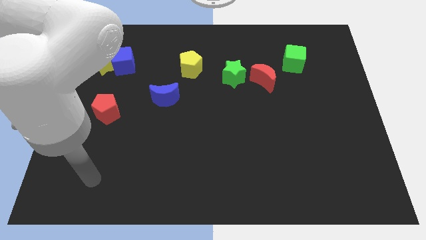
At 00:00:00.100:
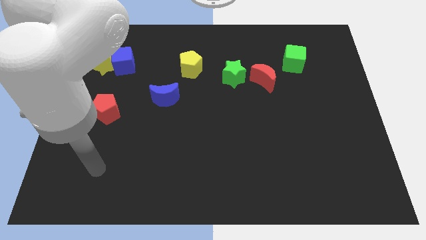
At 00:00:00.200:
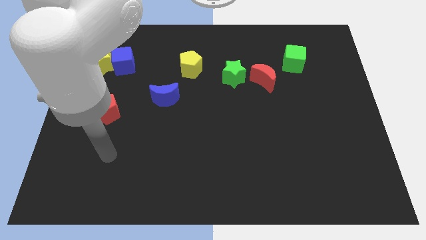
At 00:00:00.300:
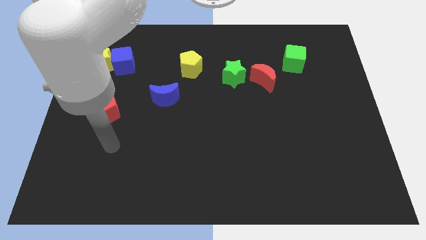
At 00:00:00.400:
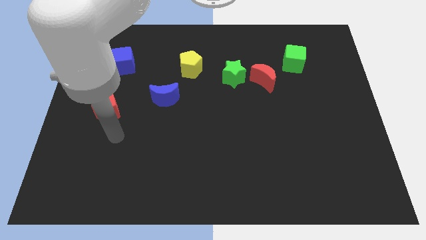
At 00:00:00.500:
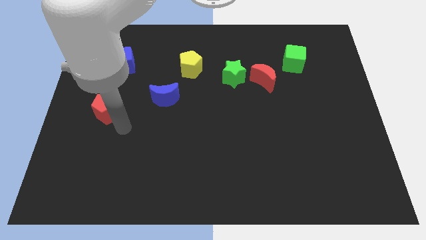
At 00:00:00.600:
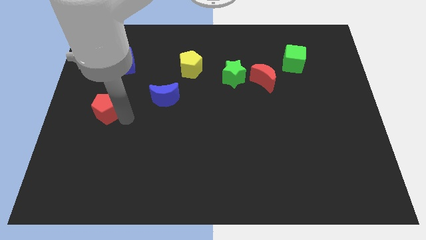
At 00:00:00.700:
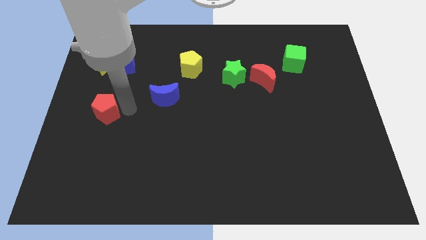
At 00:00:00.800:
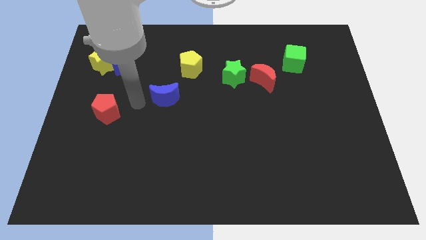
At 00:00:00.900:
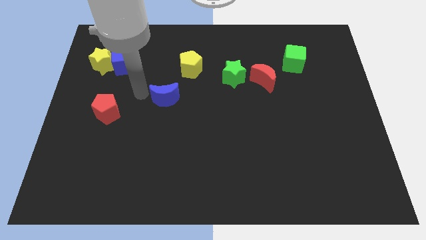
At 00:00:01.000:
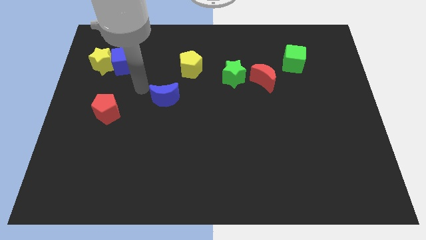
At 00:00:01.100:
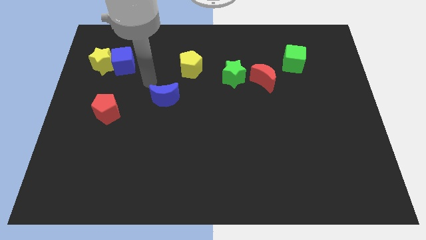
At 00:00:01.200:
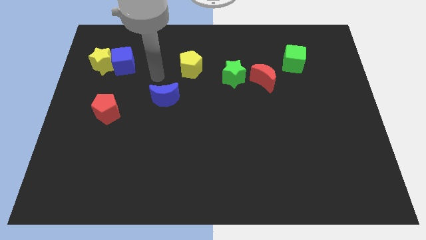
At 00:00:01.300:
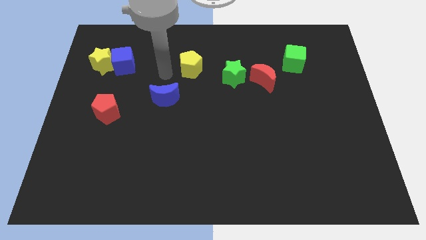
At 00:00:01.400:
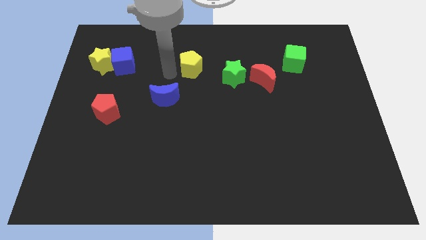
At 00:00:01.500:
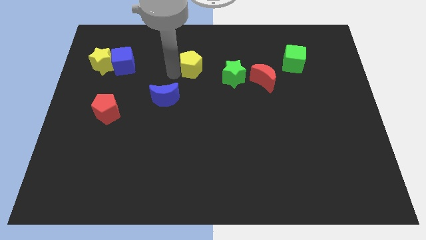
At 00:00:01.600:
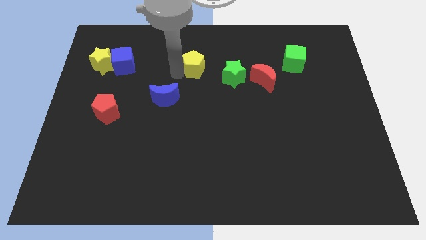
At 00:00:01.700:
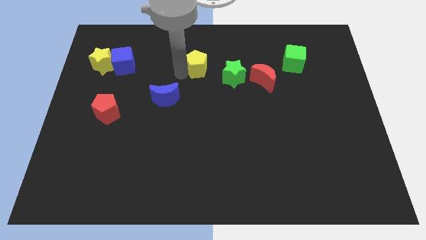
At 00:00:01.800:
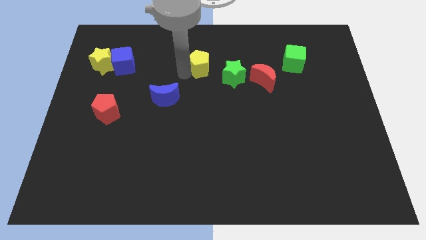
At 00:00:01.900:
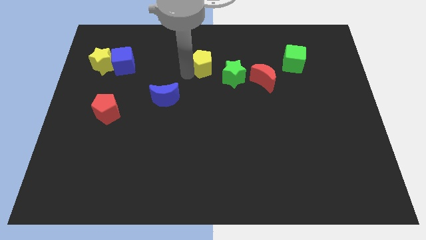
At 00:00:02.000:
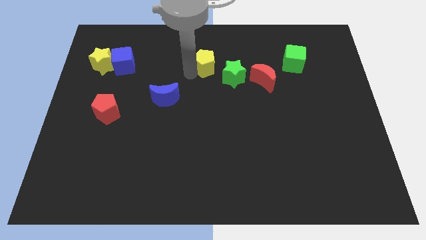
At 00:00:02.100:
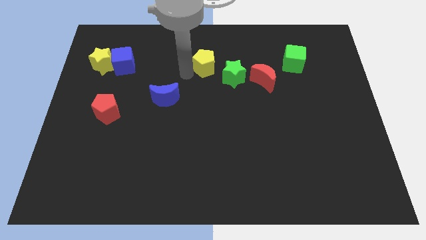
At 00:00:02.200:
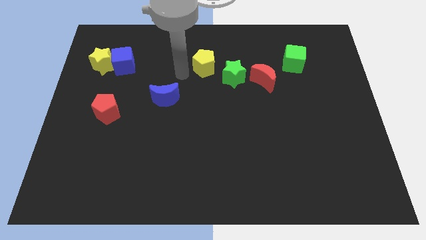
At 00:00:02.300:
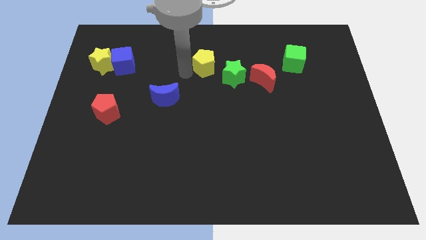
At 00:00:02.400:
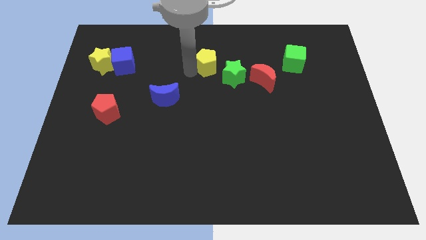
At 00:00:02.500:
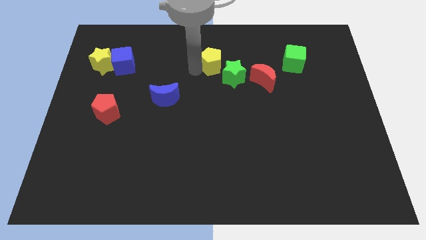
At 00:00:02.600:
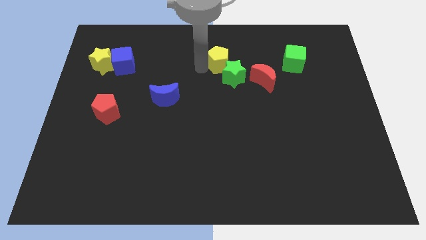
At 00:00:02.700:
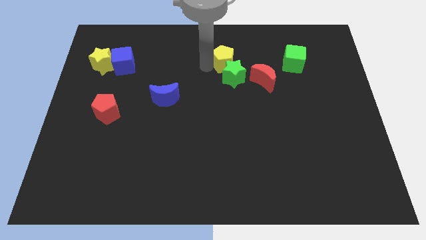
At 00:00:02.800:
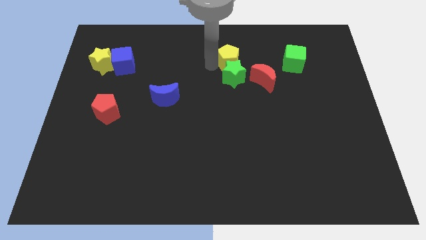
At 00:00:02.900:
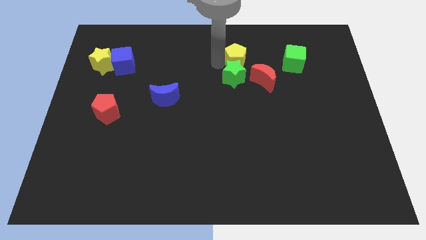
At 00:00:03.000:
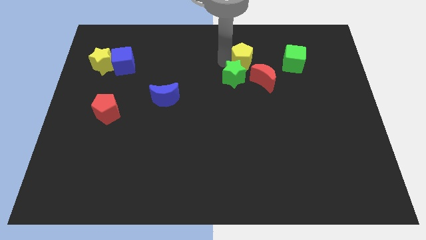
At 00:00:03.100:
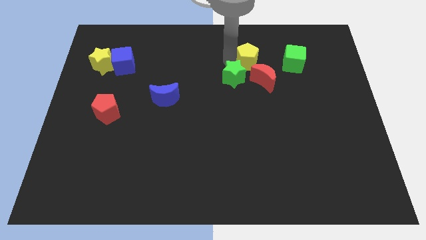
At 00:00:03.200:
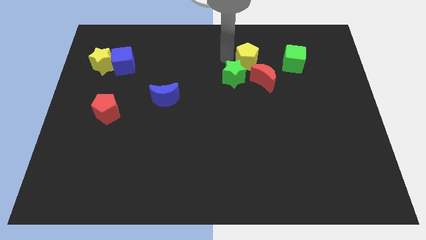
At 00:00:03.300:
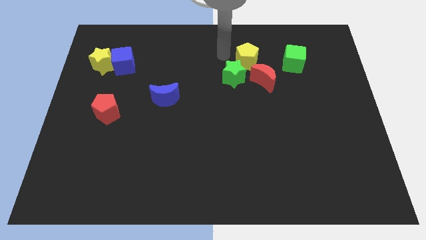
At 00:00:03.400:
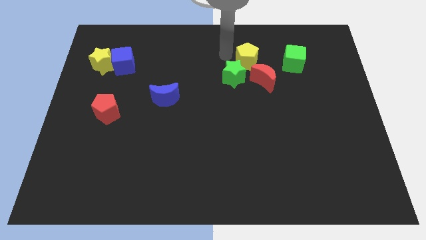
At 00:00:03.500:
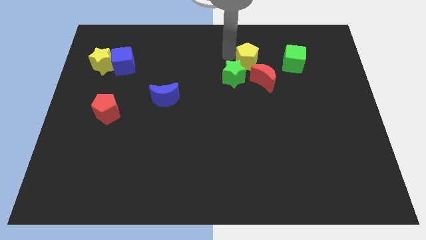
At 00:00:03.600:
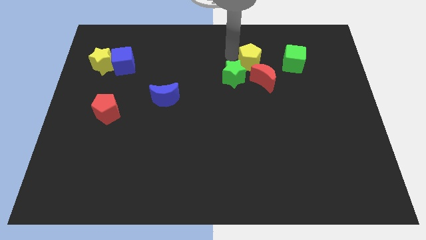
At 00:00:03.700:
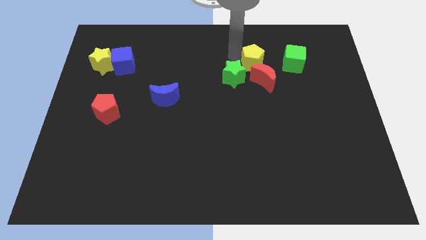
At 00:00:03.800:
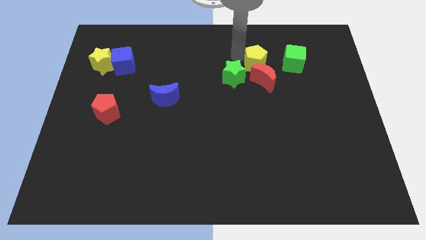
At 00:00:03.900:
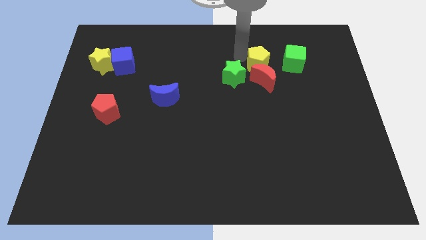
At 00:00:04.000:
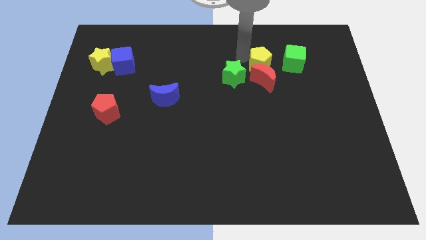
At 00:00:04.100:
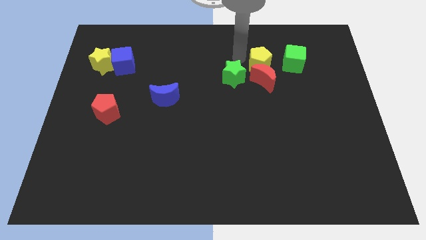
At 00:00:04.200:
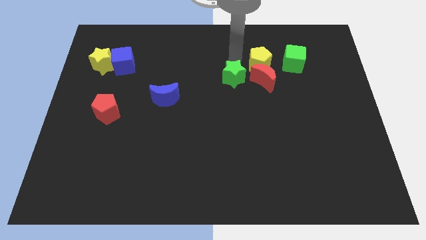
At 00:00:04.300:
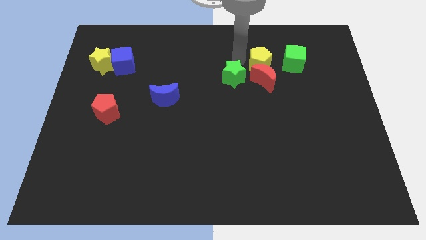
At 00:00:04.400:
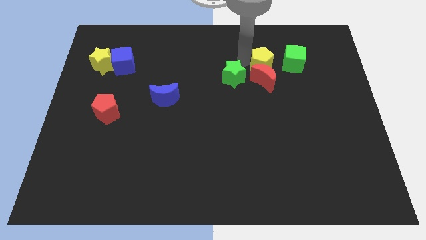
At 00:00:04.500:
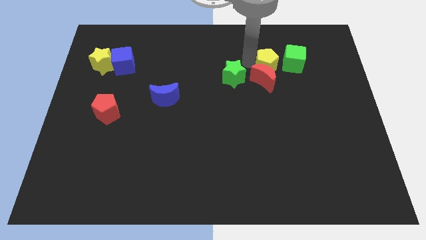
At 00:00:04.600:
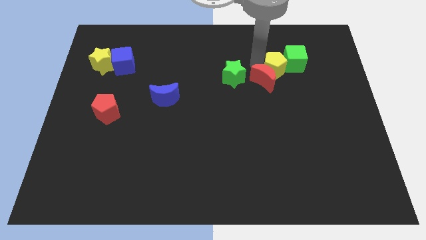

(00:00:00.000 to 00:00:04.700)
slide the yellow pentagon right

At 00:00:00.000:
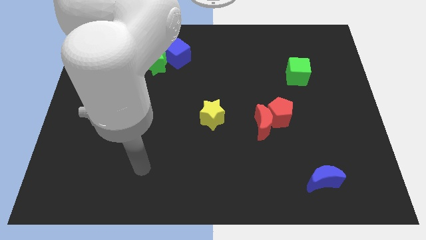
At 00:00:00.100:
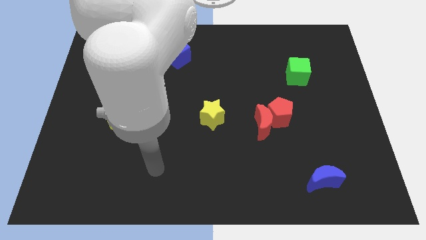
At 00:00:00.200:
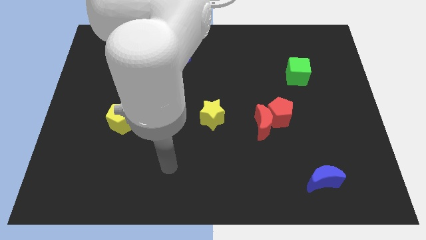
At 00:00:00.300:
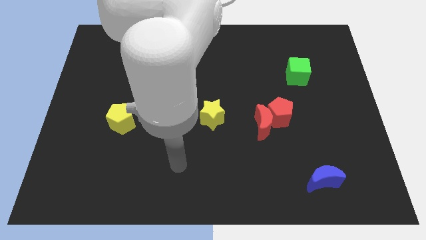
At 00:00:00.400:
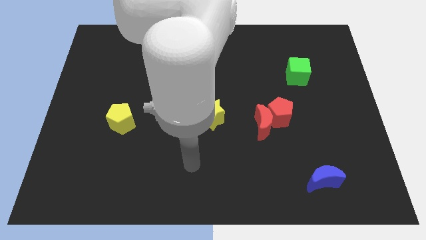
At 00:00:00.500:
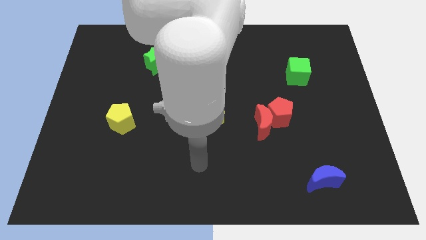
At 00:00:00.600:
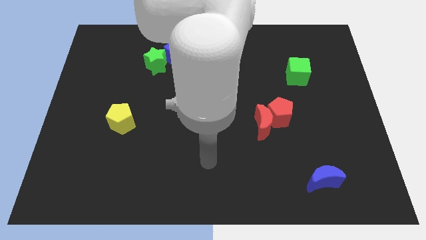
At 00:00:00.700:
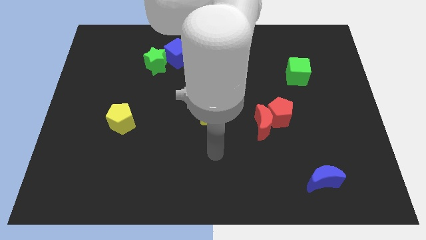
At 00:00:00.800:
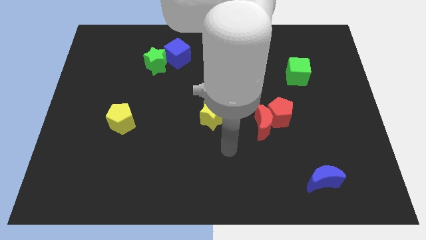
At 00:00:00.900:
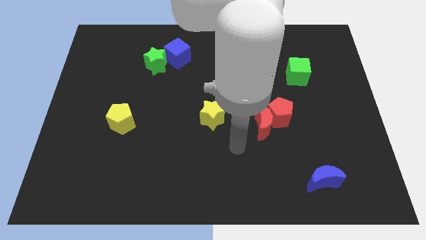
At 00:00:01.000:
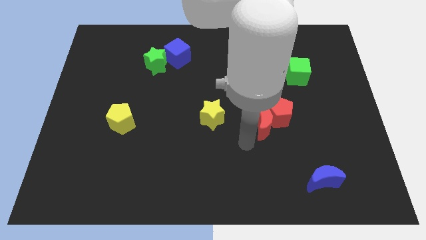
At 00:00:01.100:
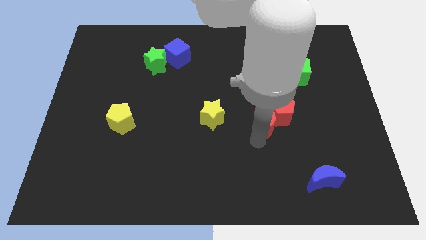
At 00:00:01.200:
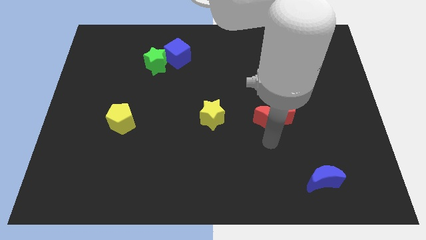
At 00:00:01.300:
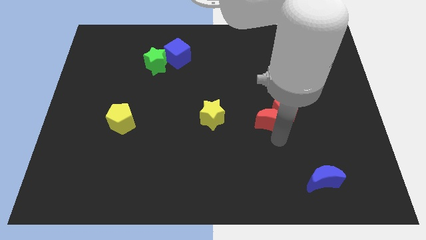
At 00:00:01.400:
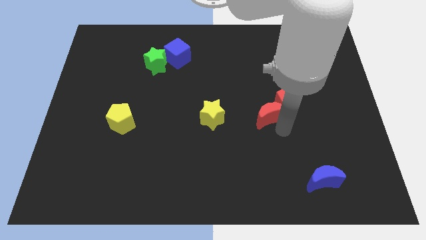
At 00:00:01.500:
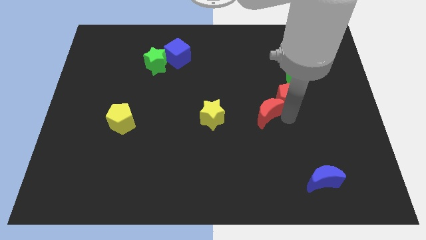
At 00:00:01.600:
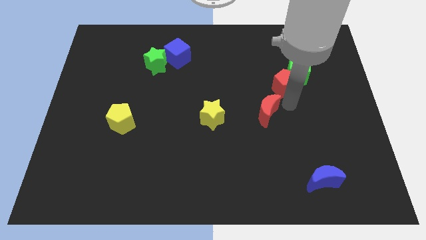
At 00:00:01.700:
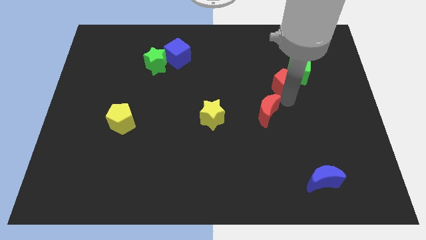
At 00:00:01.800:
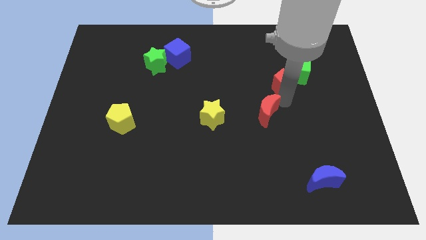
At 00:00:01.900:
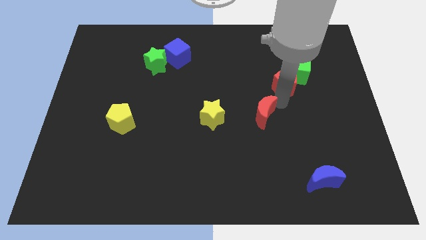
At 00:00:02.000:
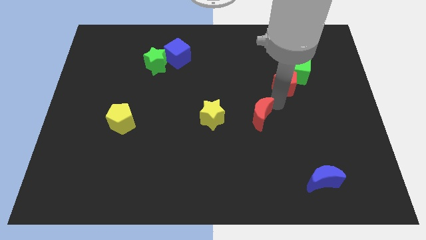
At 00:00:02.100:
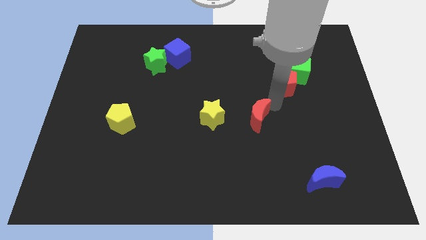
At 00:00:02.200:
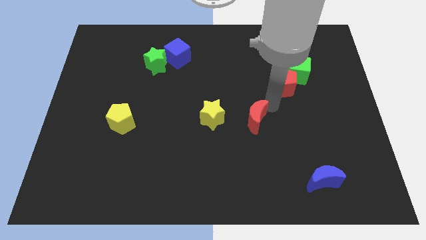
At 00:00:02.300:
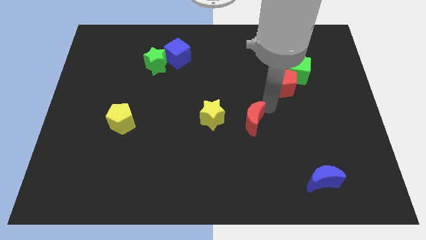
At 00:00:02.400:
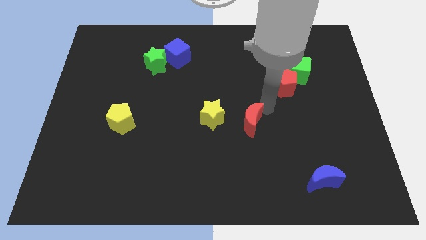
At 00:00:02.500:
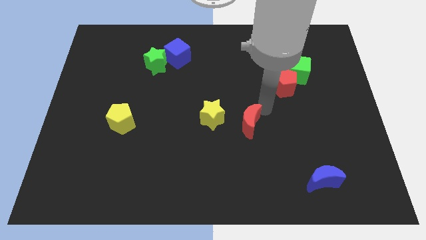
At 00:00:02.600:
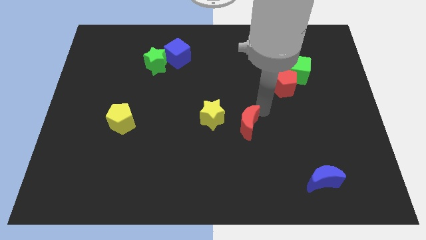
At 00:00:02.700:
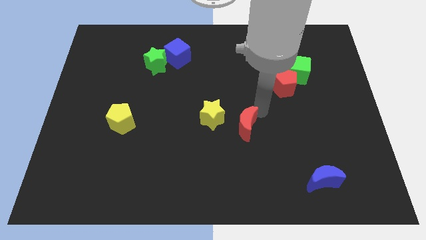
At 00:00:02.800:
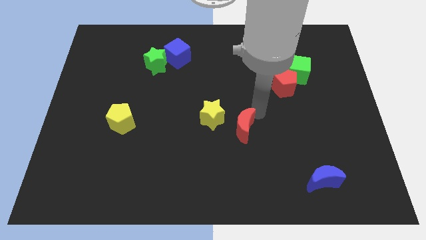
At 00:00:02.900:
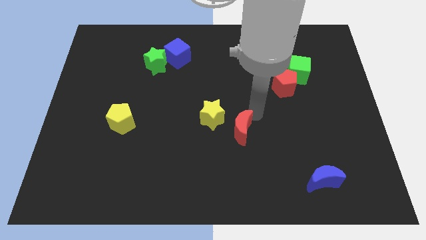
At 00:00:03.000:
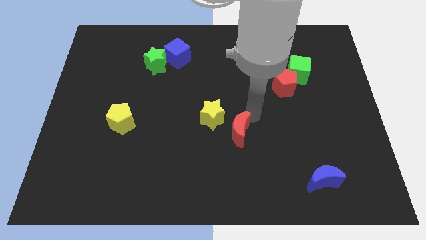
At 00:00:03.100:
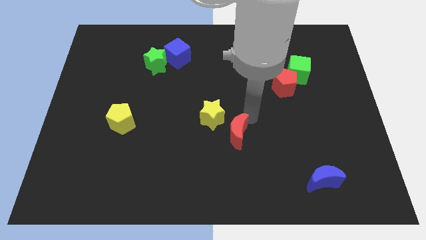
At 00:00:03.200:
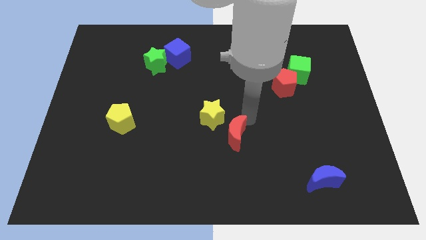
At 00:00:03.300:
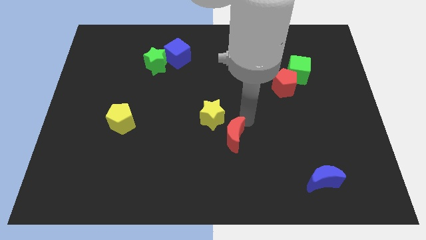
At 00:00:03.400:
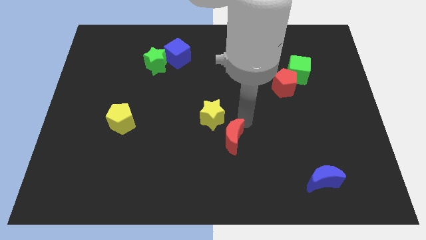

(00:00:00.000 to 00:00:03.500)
move the red moon somewhat to the left
